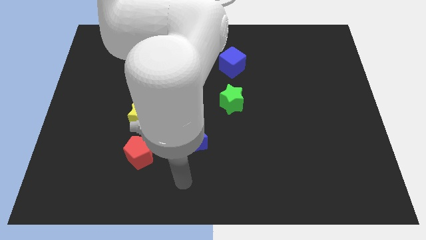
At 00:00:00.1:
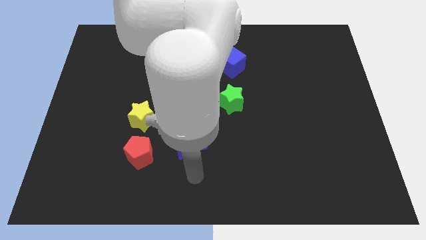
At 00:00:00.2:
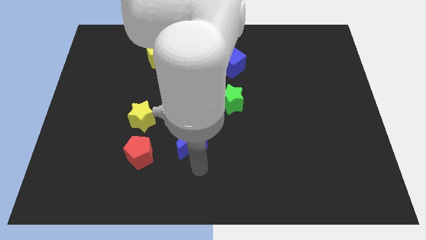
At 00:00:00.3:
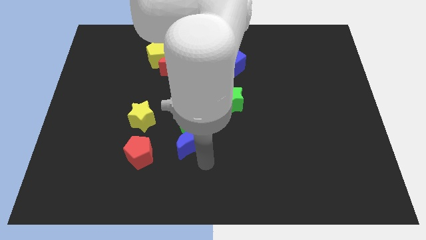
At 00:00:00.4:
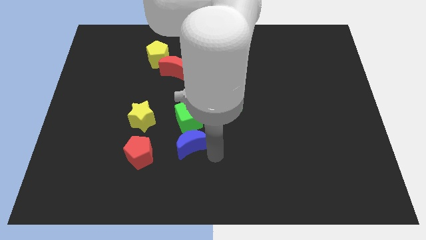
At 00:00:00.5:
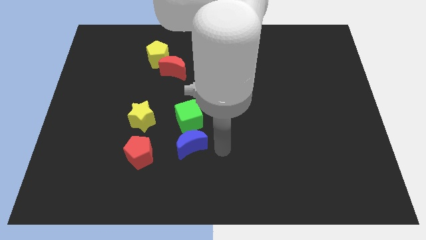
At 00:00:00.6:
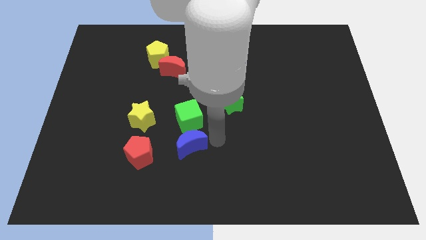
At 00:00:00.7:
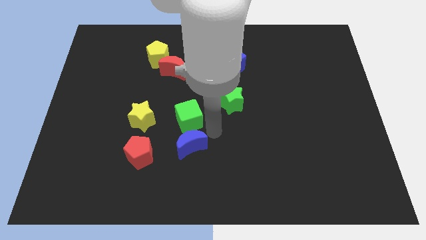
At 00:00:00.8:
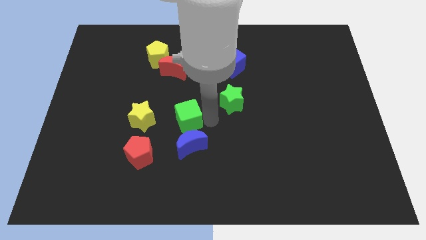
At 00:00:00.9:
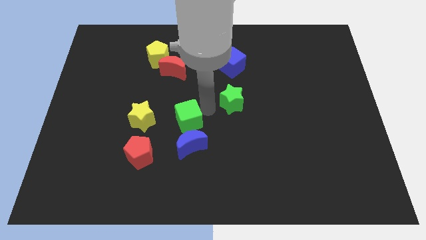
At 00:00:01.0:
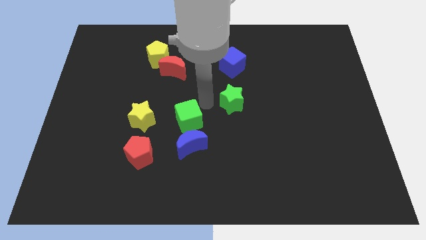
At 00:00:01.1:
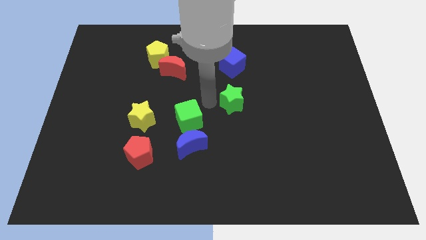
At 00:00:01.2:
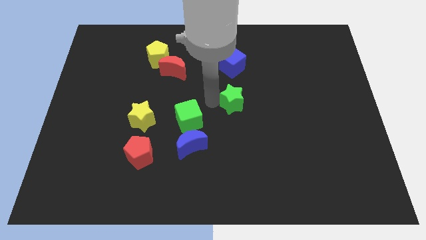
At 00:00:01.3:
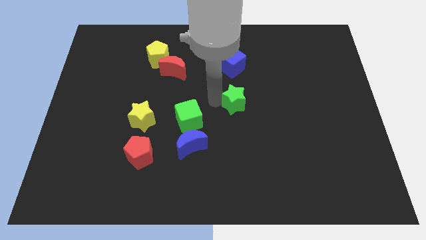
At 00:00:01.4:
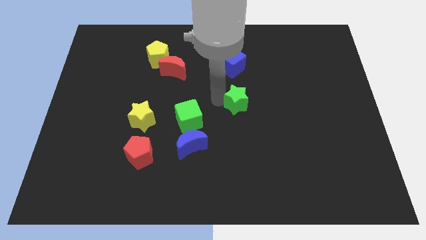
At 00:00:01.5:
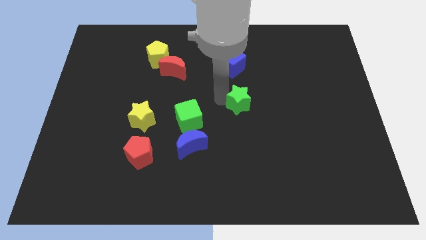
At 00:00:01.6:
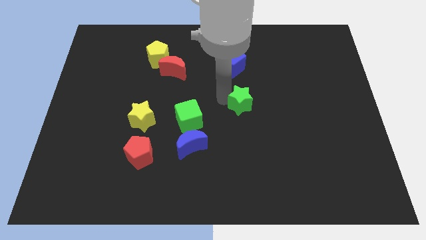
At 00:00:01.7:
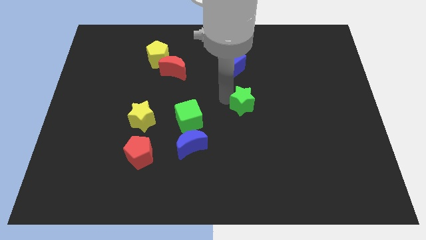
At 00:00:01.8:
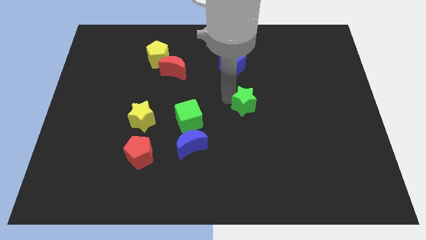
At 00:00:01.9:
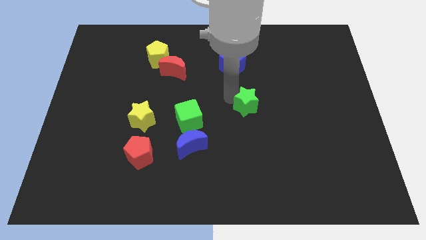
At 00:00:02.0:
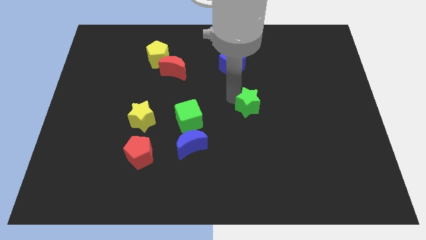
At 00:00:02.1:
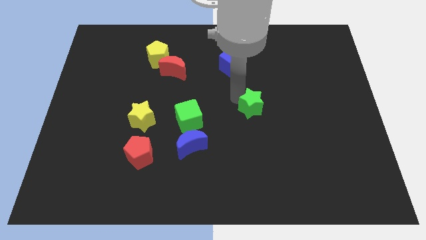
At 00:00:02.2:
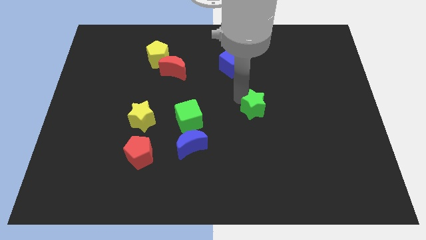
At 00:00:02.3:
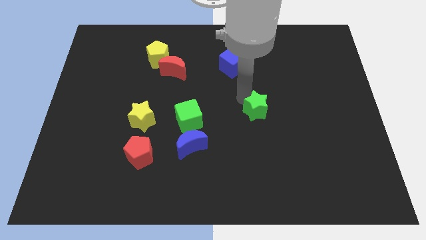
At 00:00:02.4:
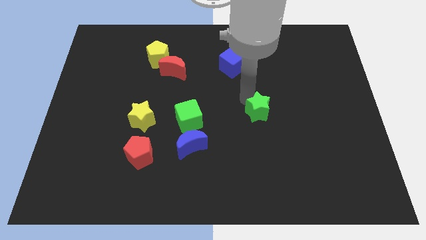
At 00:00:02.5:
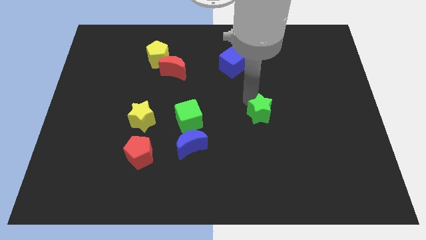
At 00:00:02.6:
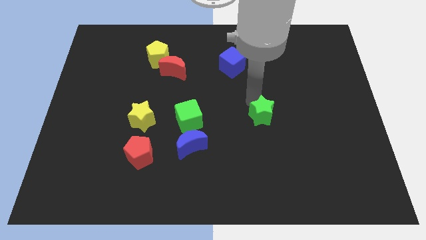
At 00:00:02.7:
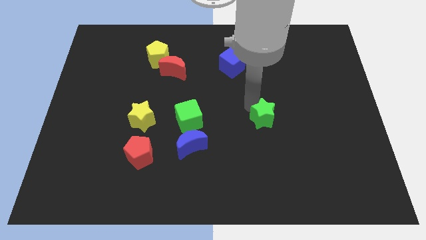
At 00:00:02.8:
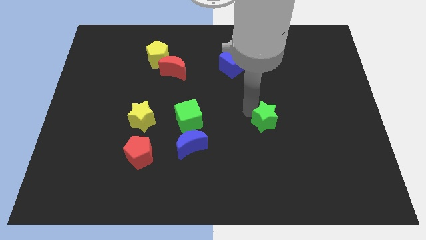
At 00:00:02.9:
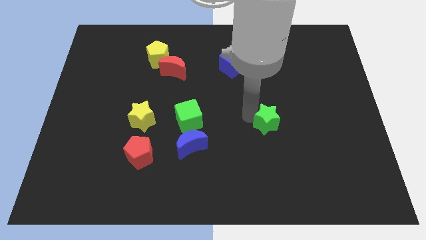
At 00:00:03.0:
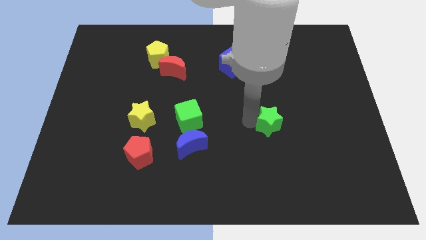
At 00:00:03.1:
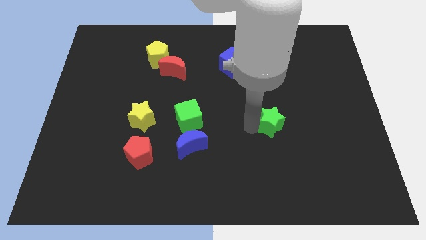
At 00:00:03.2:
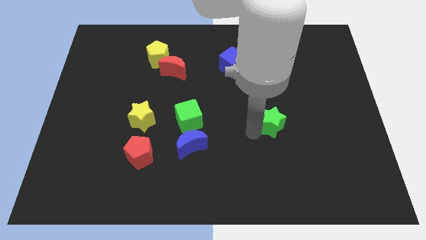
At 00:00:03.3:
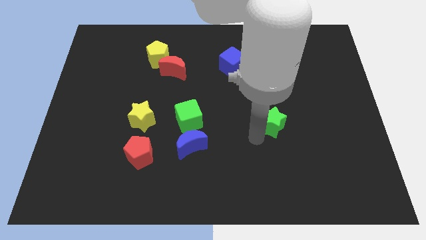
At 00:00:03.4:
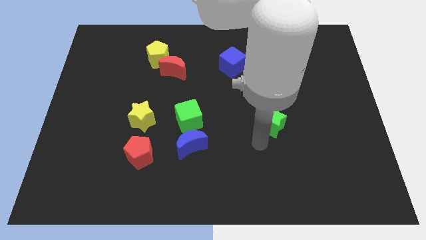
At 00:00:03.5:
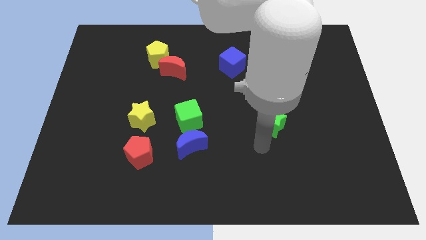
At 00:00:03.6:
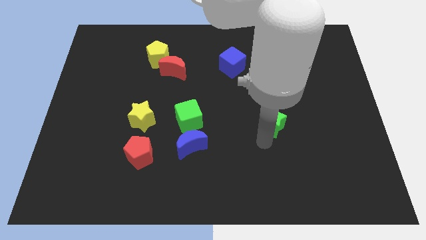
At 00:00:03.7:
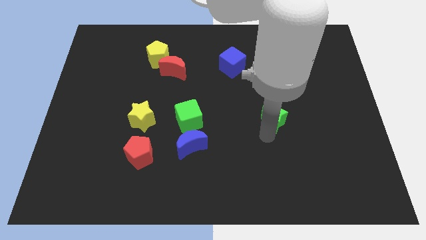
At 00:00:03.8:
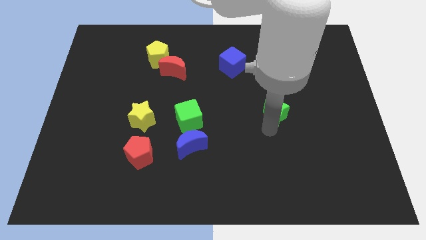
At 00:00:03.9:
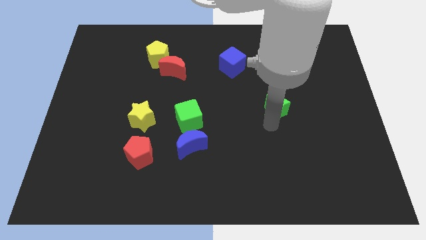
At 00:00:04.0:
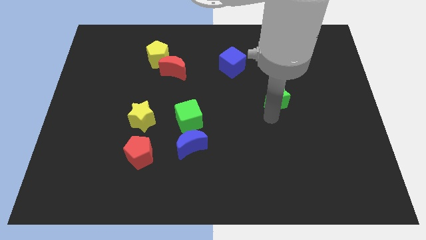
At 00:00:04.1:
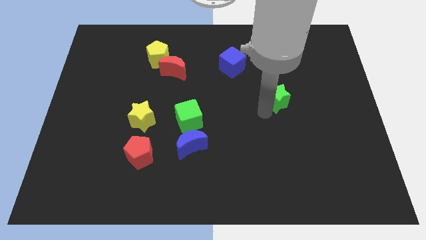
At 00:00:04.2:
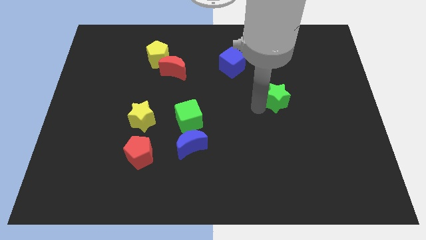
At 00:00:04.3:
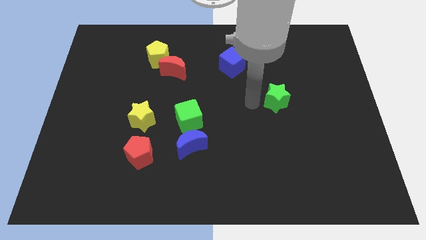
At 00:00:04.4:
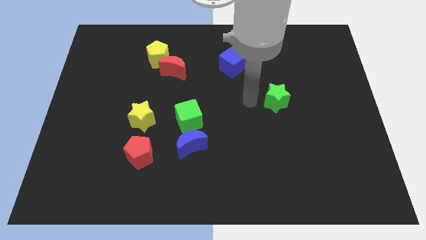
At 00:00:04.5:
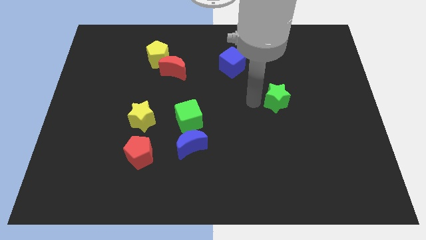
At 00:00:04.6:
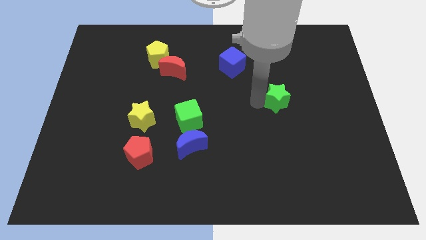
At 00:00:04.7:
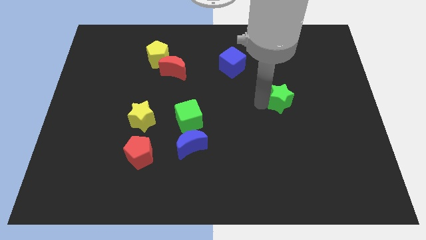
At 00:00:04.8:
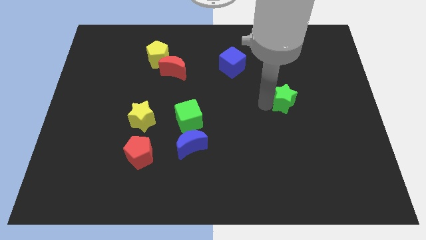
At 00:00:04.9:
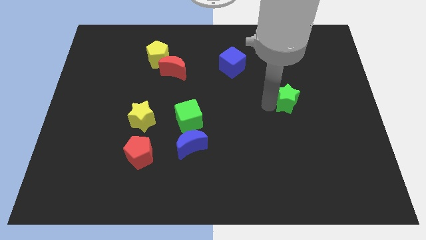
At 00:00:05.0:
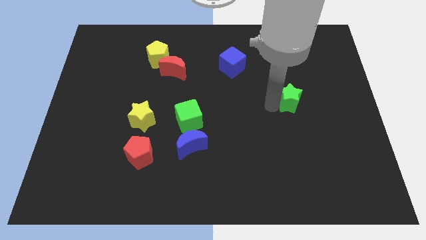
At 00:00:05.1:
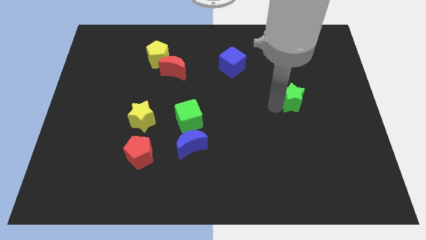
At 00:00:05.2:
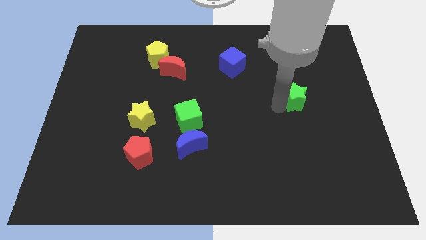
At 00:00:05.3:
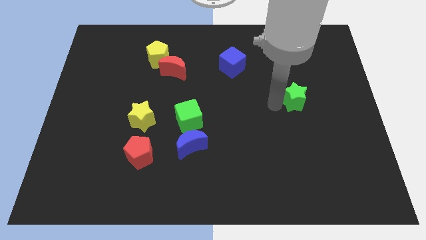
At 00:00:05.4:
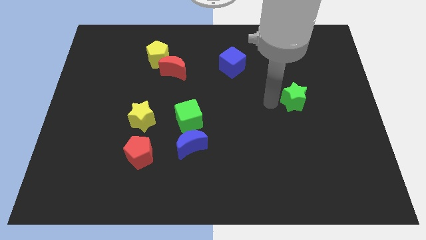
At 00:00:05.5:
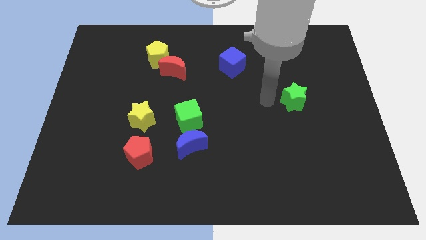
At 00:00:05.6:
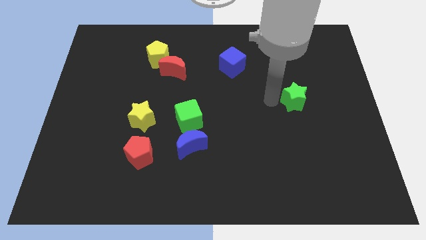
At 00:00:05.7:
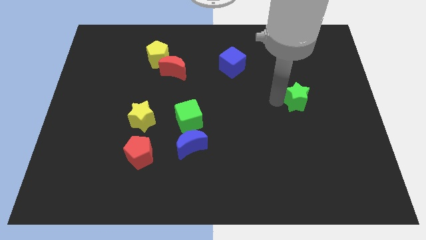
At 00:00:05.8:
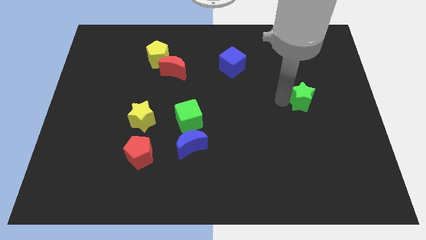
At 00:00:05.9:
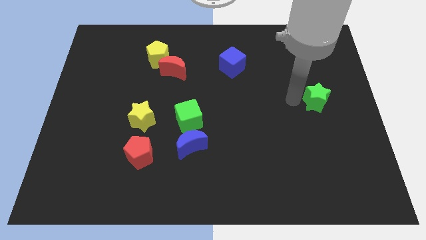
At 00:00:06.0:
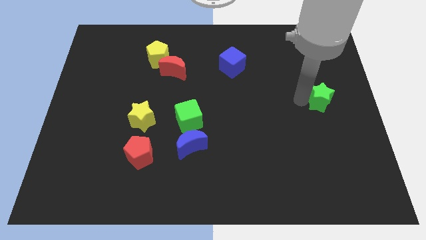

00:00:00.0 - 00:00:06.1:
slide the green star to the right side of the board
